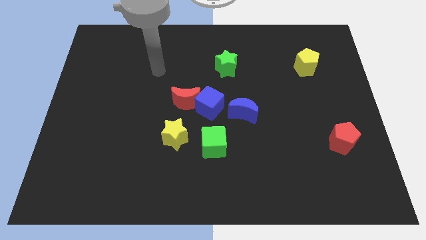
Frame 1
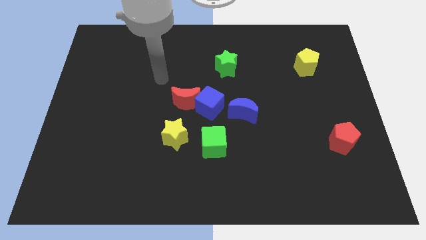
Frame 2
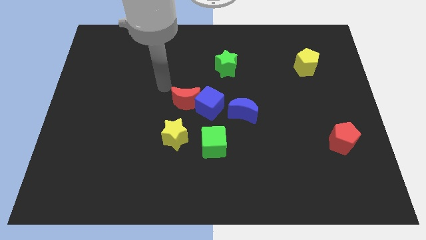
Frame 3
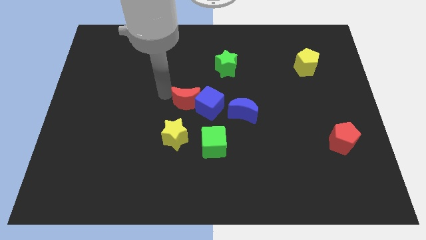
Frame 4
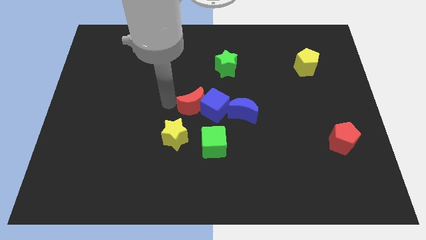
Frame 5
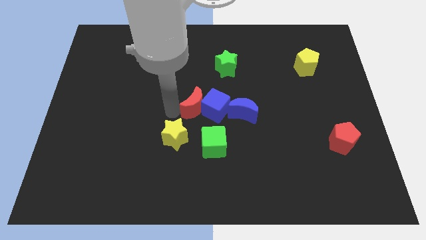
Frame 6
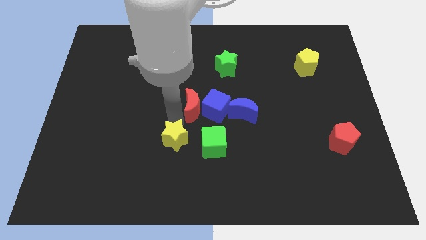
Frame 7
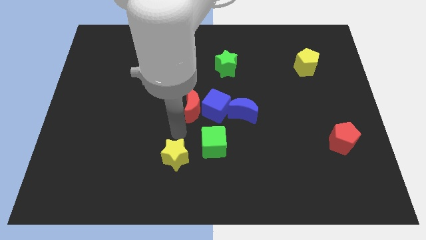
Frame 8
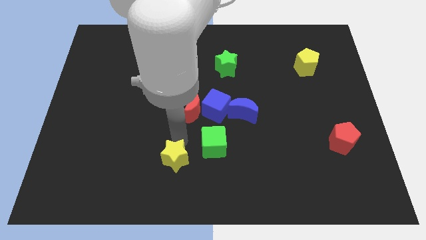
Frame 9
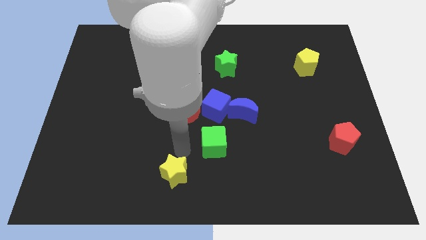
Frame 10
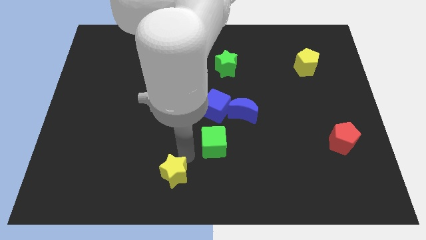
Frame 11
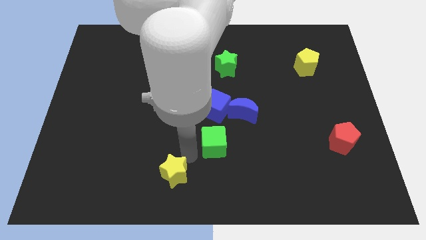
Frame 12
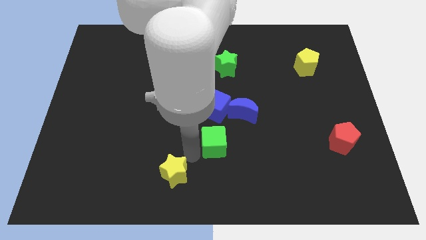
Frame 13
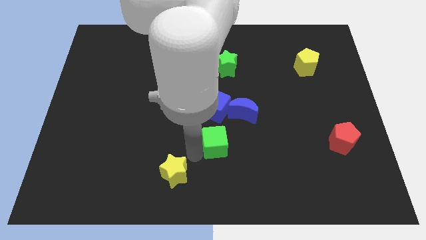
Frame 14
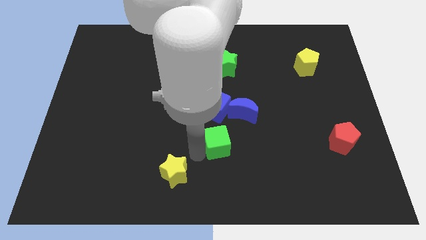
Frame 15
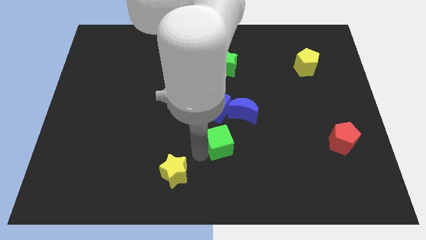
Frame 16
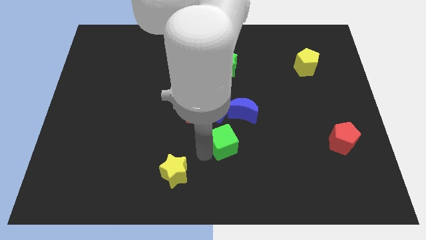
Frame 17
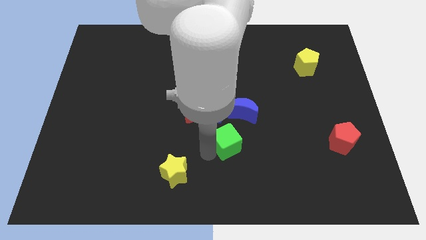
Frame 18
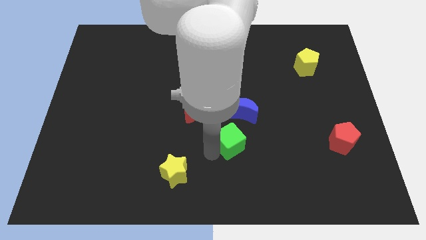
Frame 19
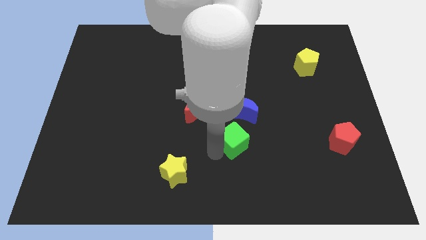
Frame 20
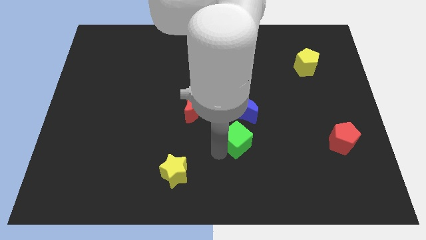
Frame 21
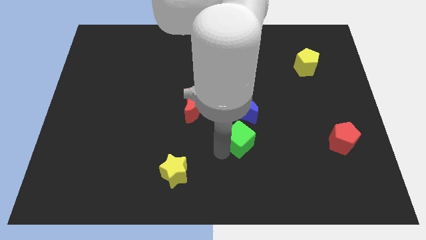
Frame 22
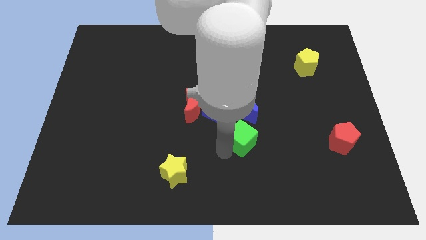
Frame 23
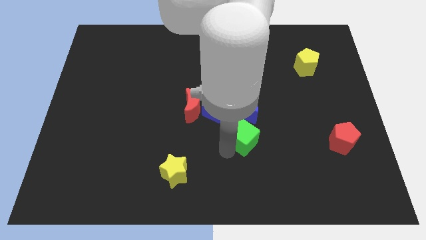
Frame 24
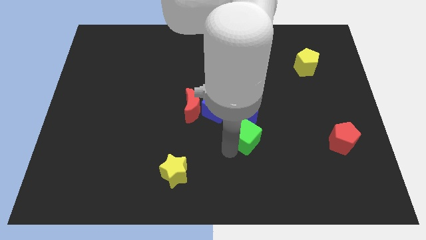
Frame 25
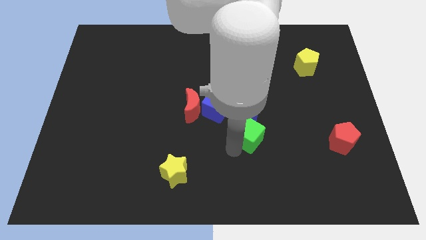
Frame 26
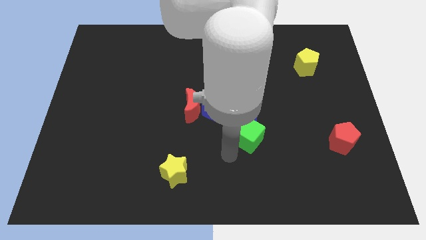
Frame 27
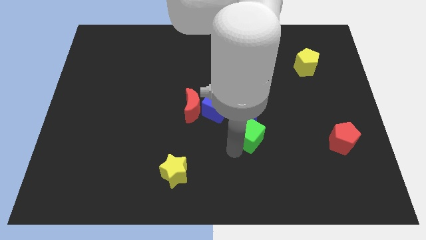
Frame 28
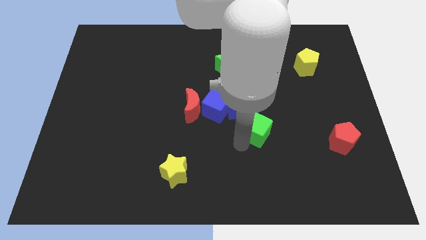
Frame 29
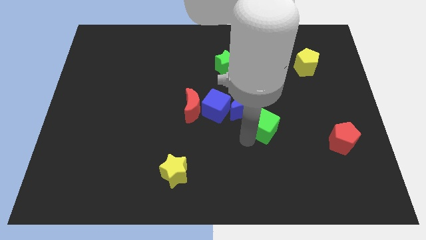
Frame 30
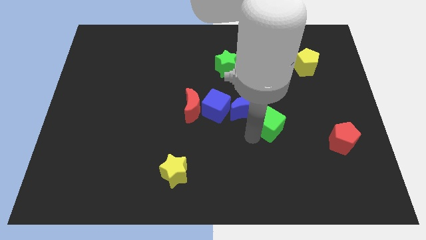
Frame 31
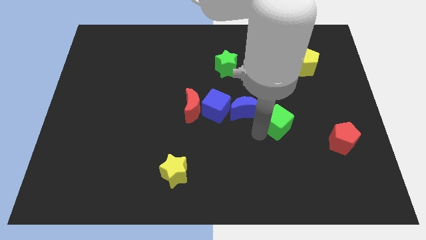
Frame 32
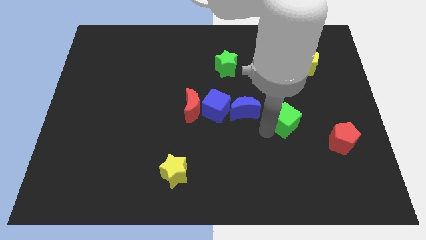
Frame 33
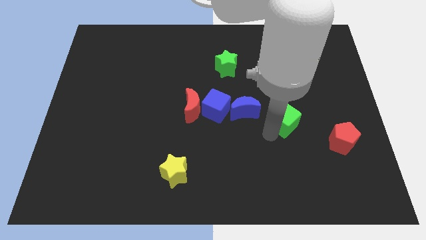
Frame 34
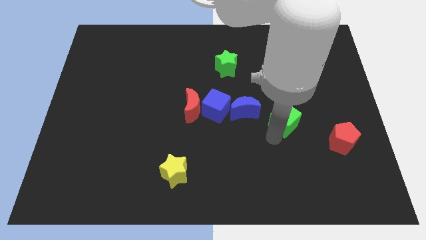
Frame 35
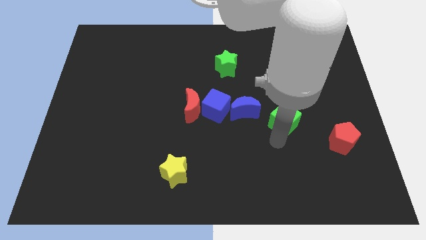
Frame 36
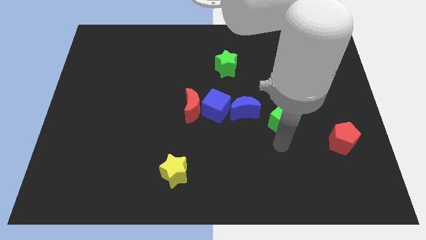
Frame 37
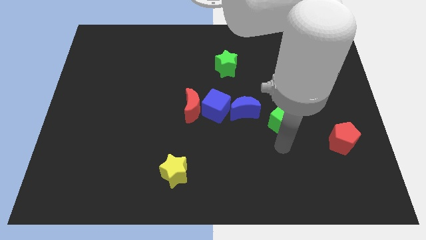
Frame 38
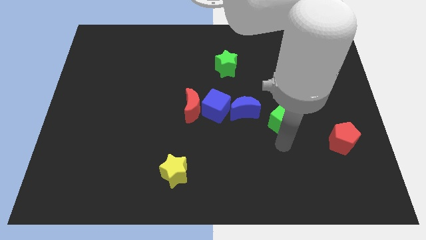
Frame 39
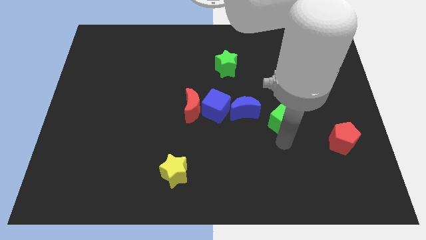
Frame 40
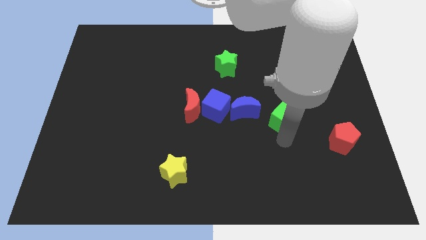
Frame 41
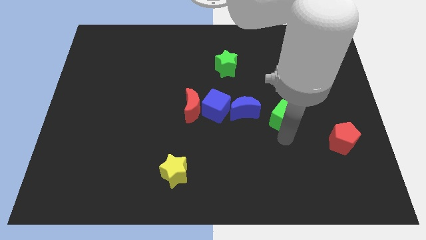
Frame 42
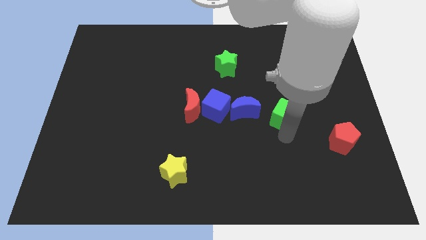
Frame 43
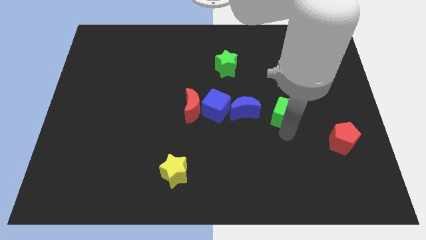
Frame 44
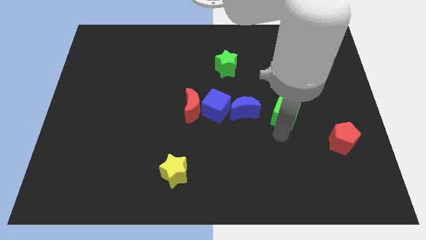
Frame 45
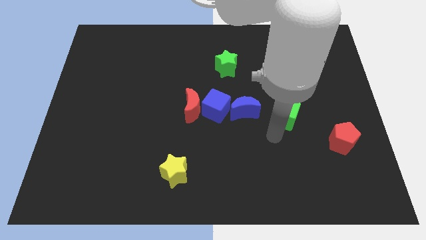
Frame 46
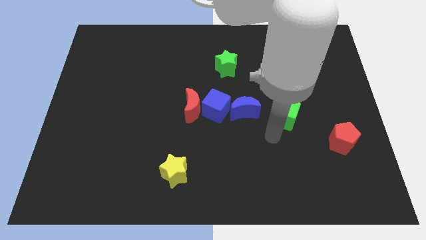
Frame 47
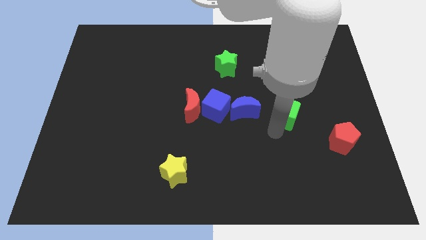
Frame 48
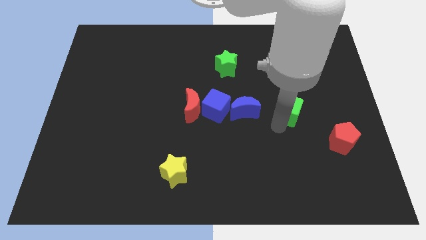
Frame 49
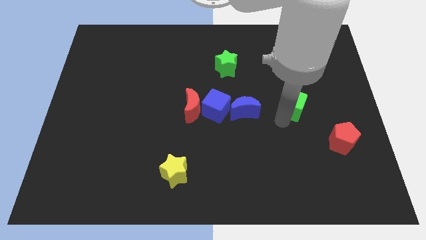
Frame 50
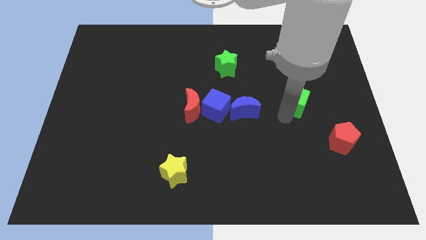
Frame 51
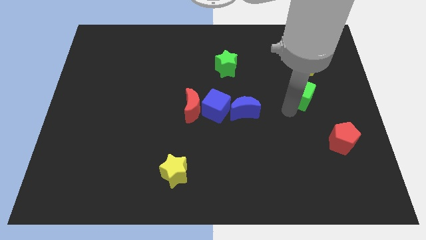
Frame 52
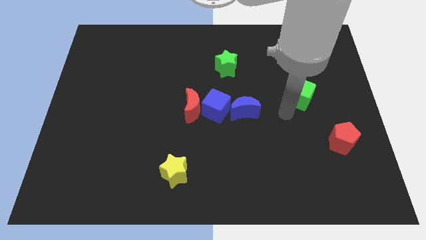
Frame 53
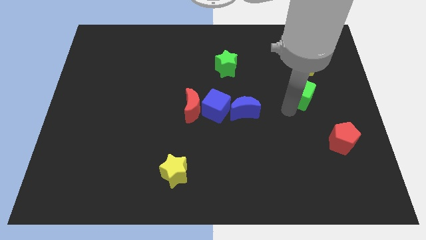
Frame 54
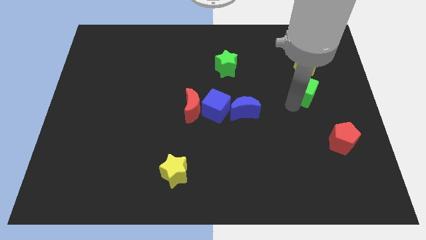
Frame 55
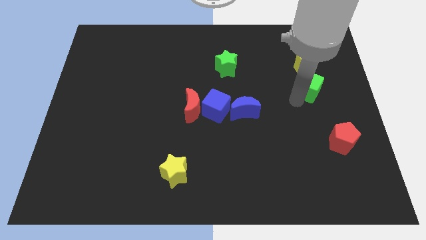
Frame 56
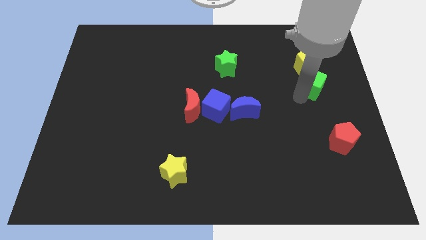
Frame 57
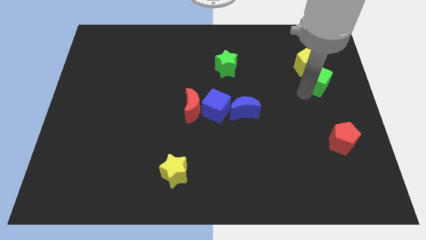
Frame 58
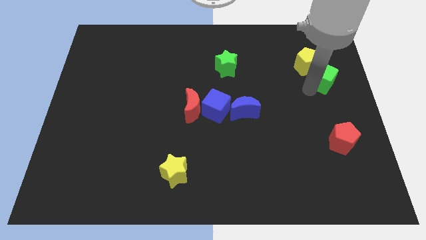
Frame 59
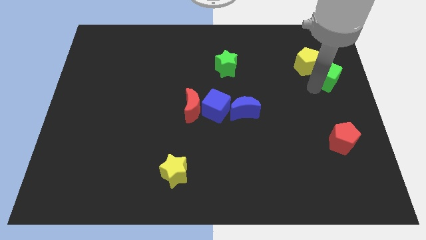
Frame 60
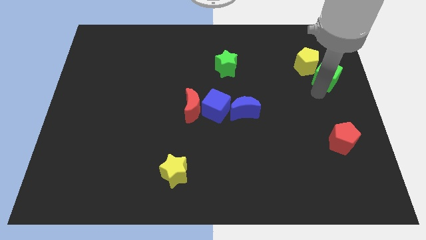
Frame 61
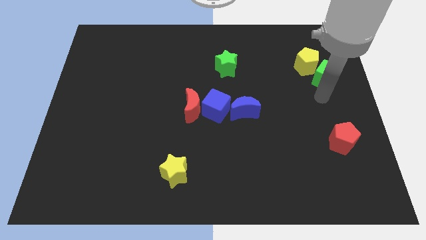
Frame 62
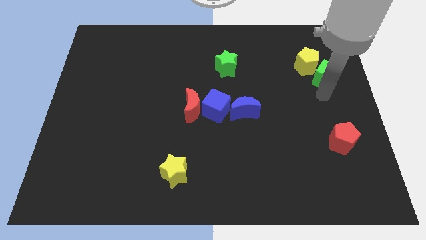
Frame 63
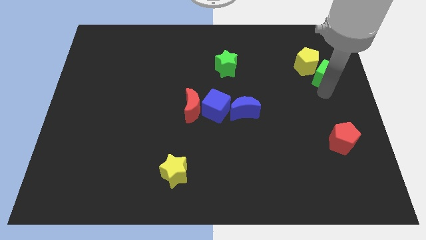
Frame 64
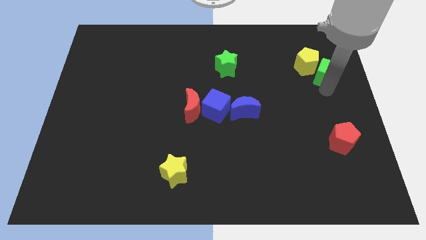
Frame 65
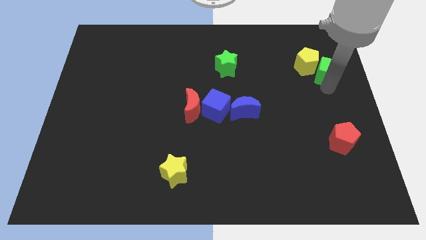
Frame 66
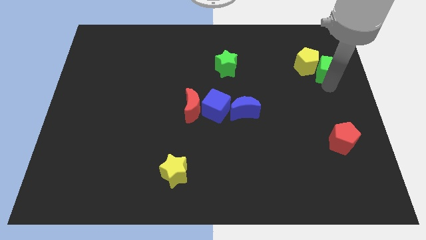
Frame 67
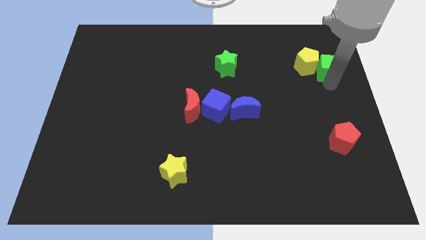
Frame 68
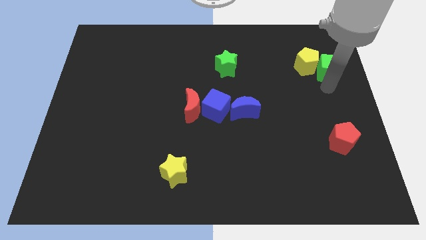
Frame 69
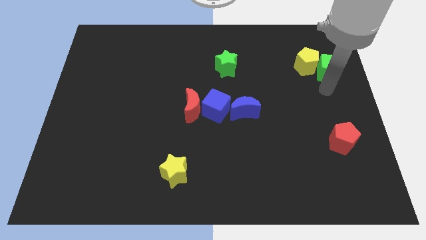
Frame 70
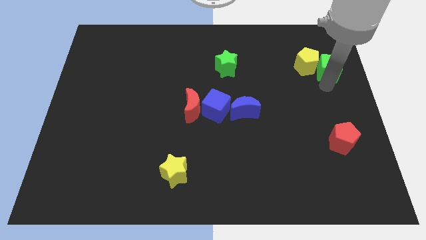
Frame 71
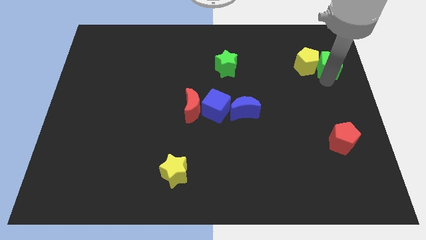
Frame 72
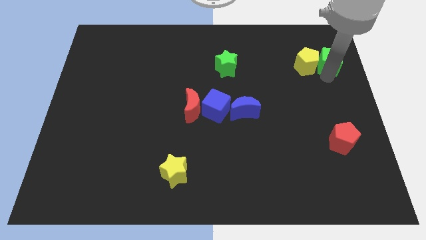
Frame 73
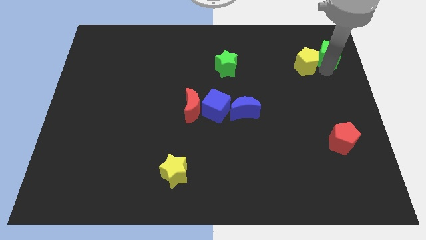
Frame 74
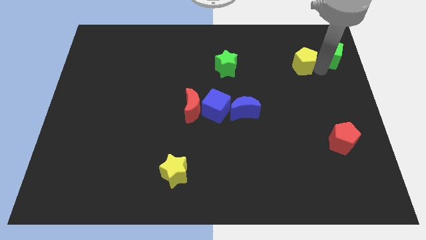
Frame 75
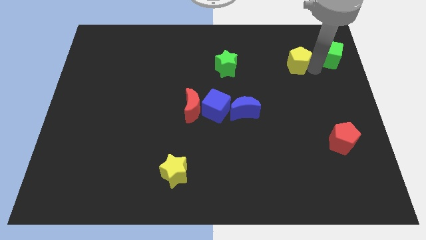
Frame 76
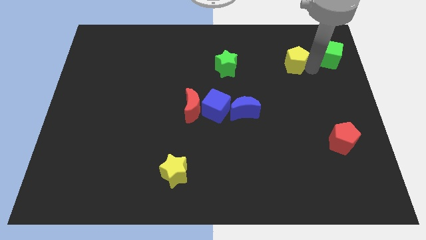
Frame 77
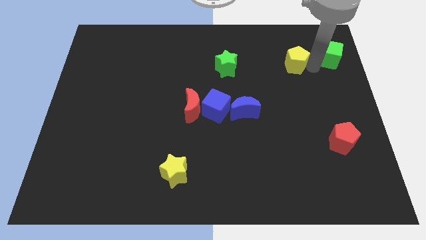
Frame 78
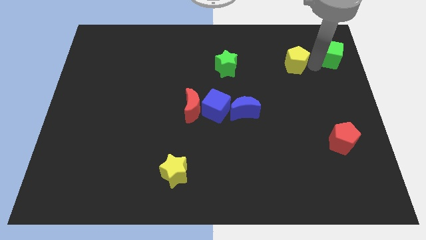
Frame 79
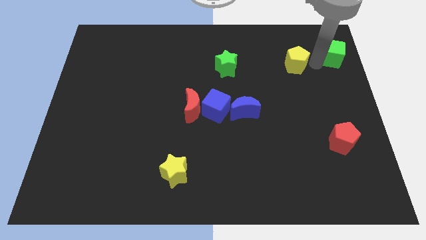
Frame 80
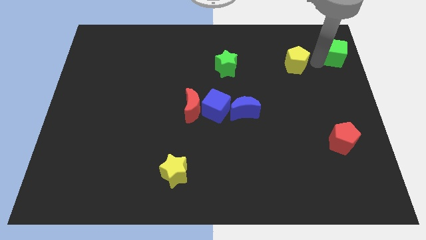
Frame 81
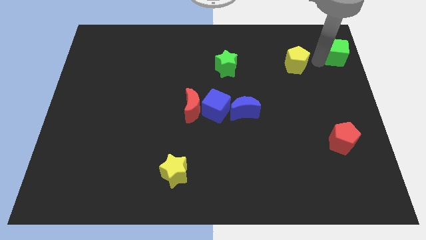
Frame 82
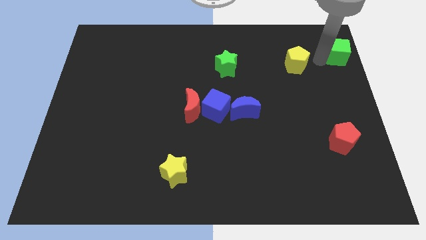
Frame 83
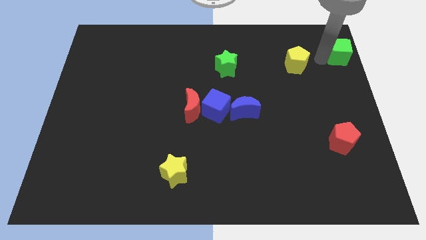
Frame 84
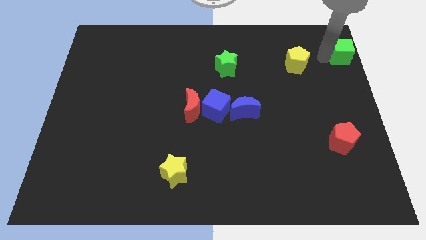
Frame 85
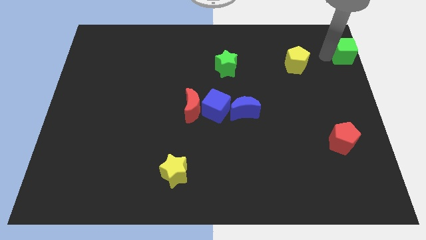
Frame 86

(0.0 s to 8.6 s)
move the green cube to the top right
